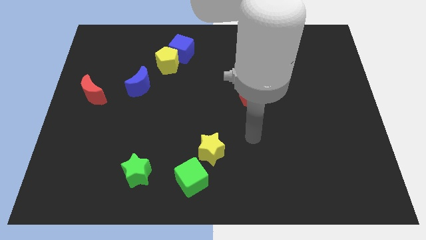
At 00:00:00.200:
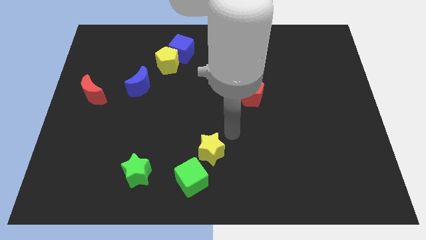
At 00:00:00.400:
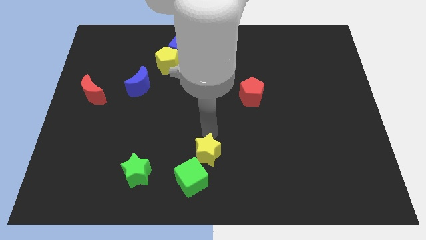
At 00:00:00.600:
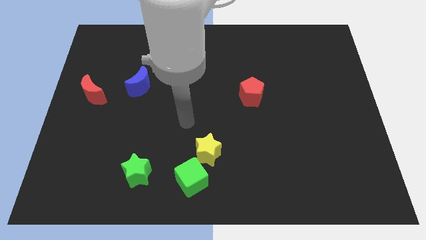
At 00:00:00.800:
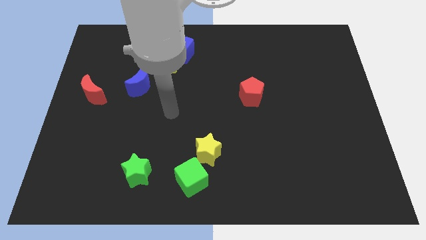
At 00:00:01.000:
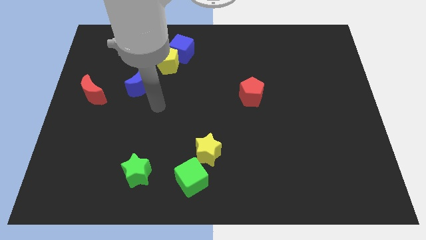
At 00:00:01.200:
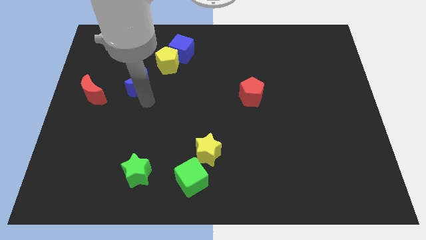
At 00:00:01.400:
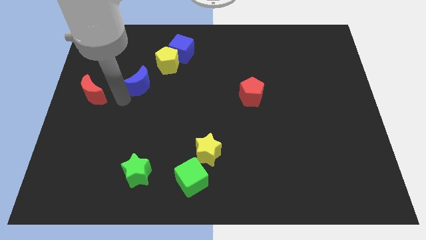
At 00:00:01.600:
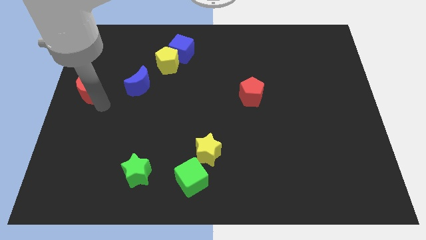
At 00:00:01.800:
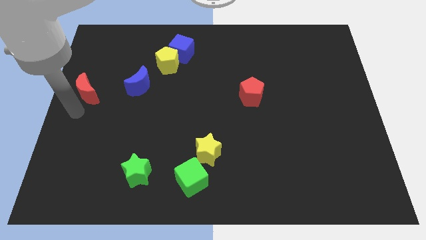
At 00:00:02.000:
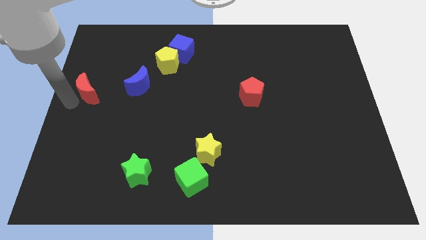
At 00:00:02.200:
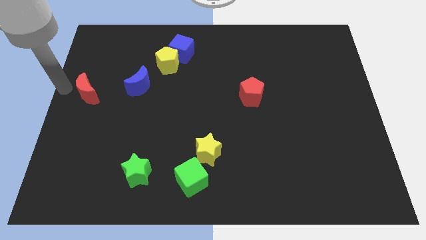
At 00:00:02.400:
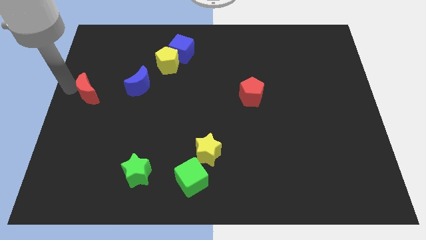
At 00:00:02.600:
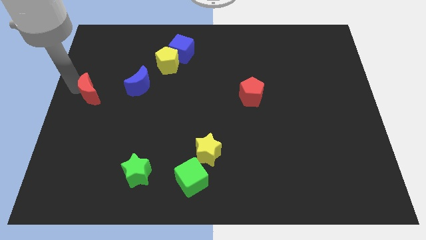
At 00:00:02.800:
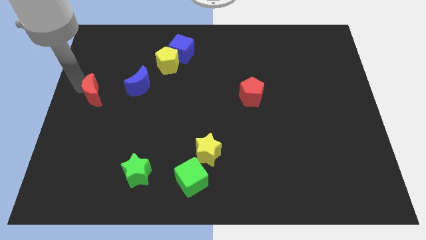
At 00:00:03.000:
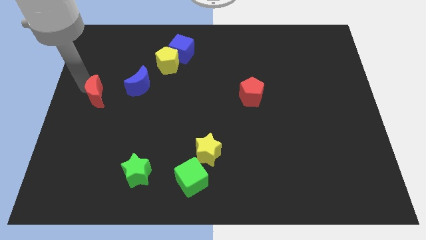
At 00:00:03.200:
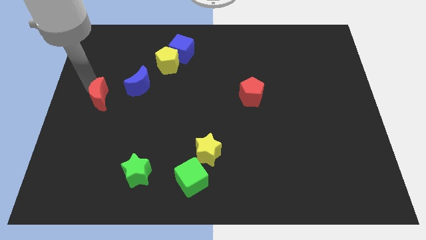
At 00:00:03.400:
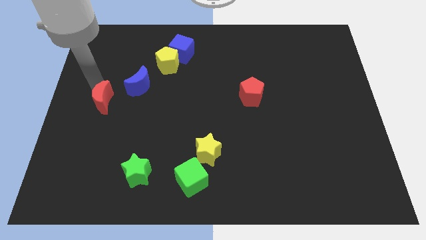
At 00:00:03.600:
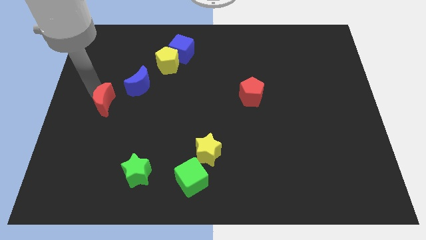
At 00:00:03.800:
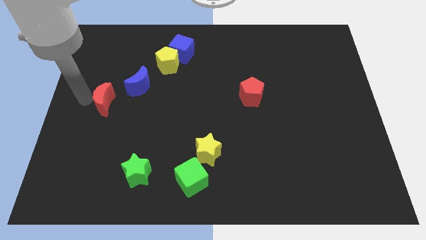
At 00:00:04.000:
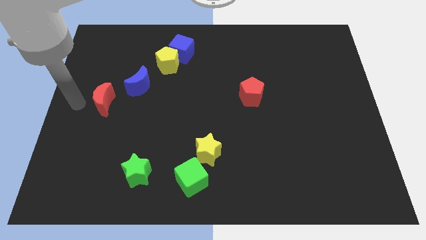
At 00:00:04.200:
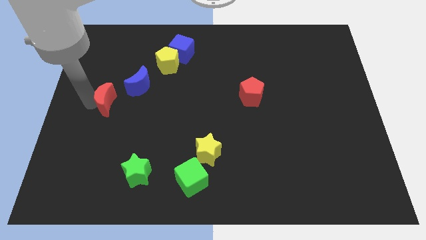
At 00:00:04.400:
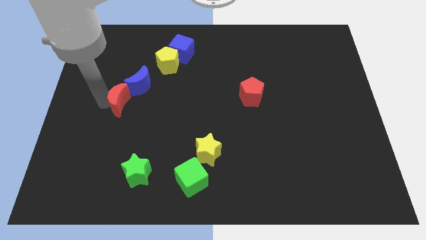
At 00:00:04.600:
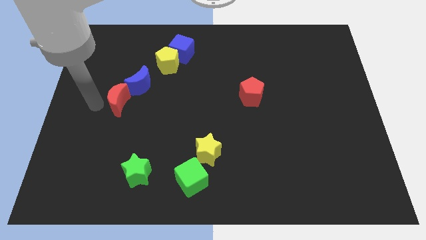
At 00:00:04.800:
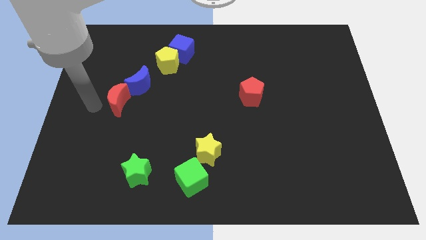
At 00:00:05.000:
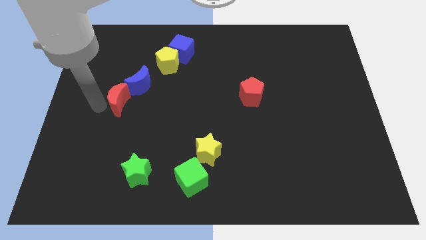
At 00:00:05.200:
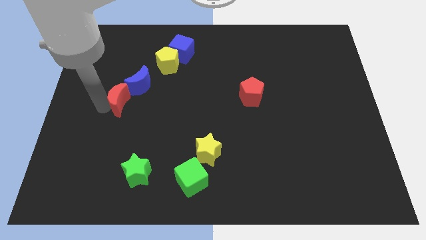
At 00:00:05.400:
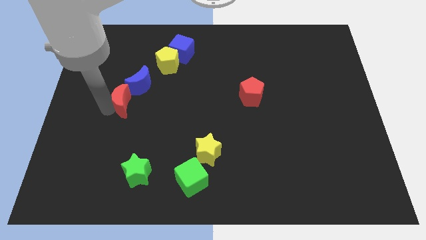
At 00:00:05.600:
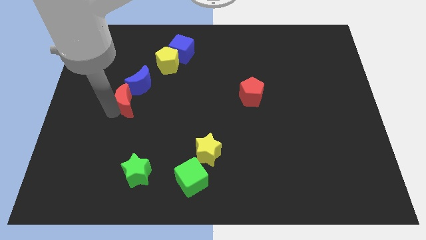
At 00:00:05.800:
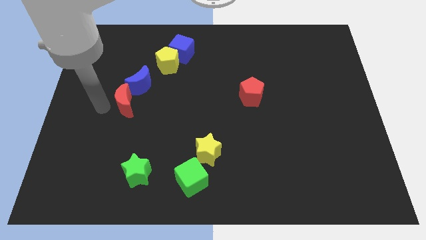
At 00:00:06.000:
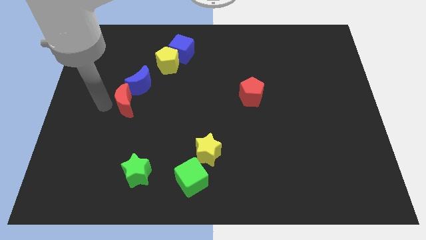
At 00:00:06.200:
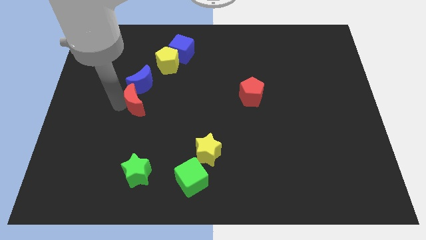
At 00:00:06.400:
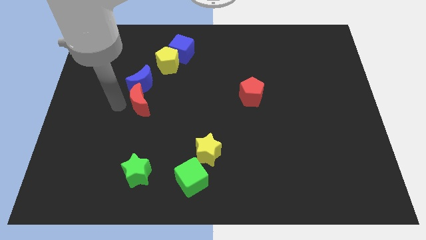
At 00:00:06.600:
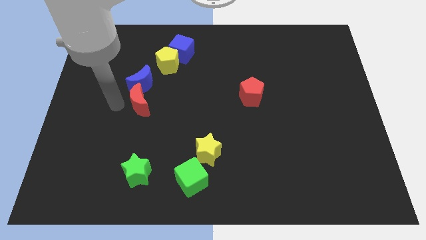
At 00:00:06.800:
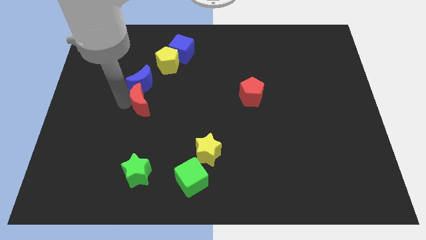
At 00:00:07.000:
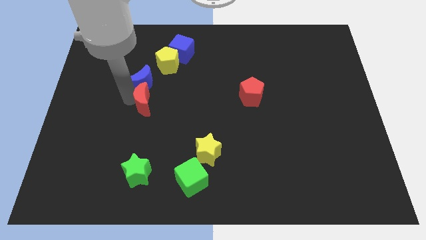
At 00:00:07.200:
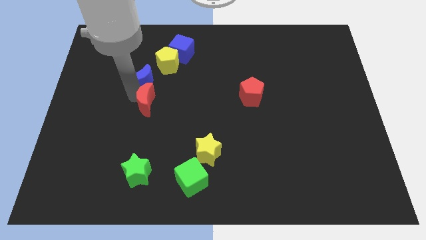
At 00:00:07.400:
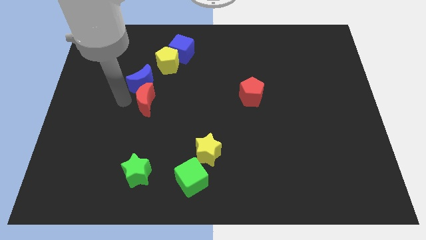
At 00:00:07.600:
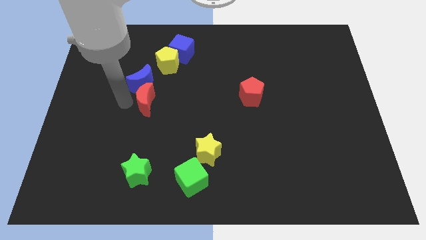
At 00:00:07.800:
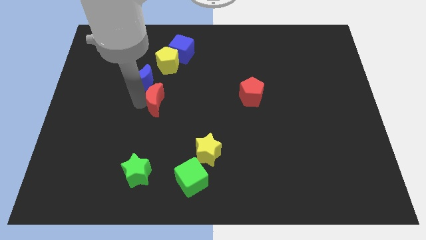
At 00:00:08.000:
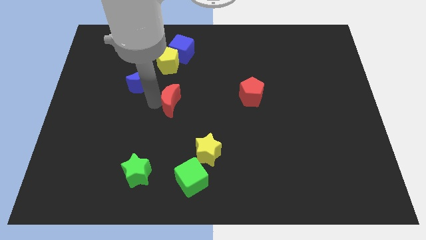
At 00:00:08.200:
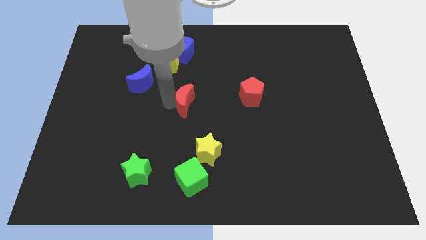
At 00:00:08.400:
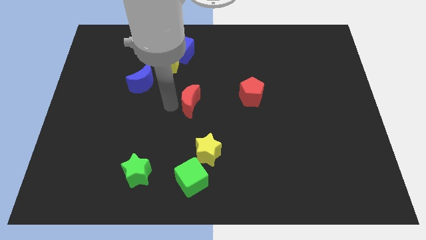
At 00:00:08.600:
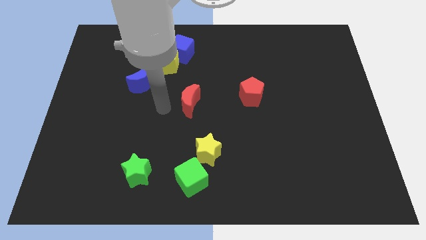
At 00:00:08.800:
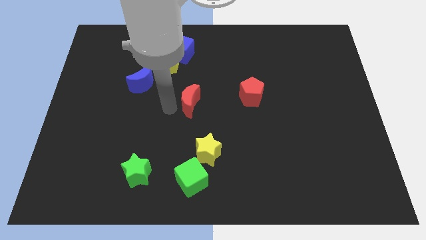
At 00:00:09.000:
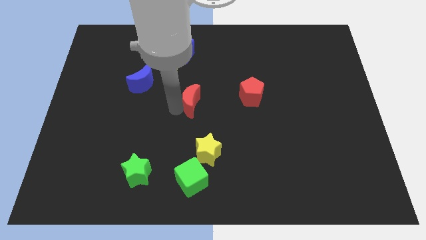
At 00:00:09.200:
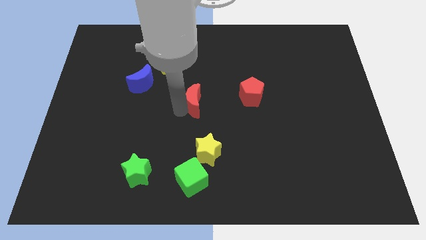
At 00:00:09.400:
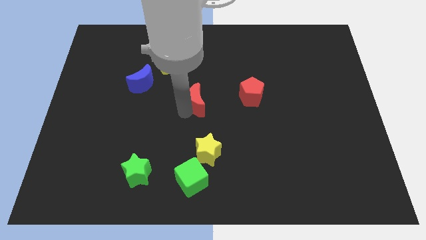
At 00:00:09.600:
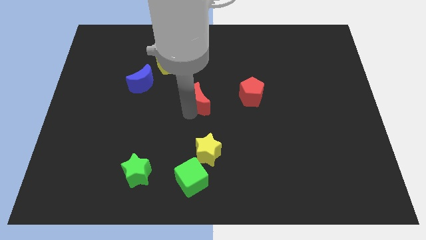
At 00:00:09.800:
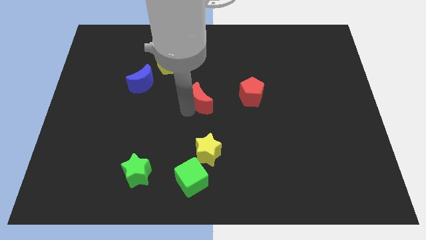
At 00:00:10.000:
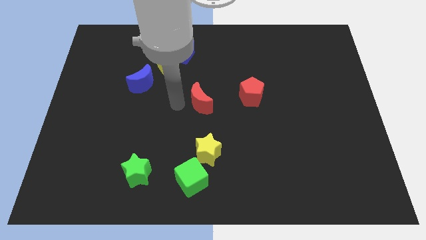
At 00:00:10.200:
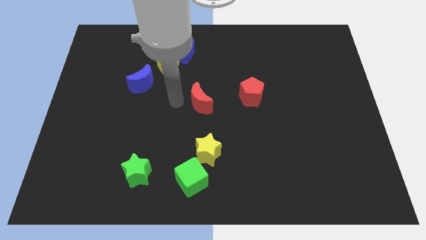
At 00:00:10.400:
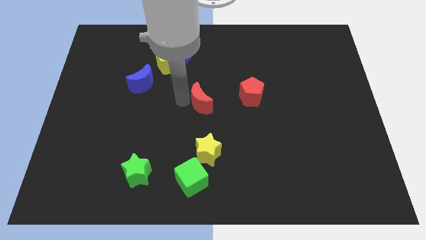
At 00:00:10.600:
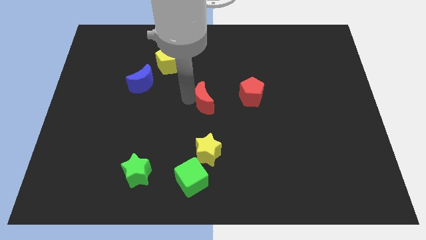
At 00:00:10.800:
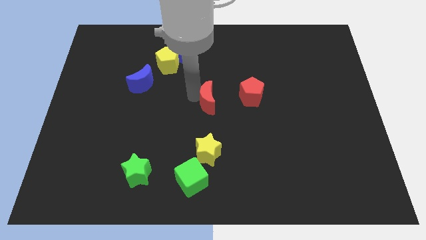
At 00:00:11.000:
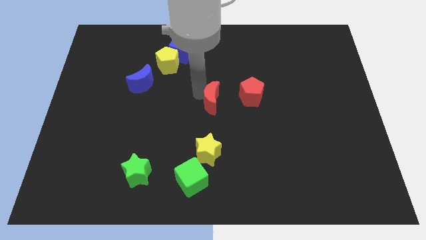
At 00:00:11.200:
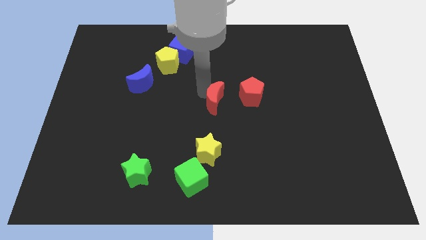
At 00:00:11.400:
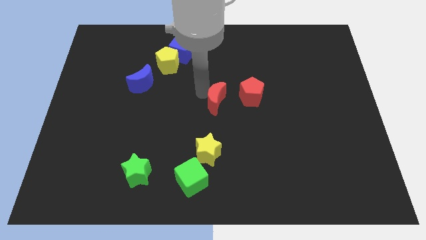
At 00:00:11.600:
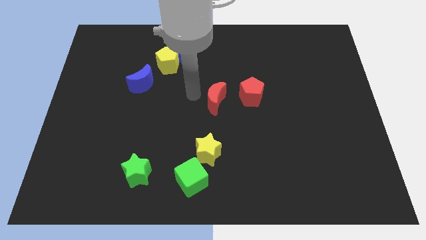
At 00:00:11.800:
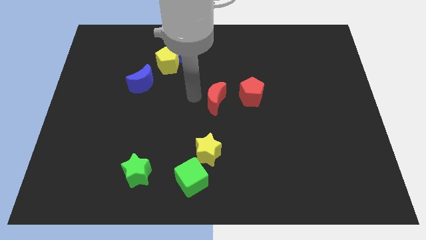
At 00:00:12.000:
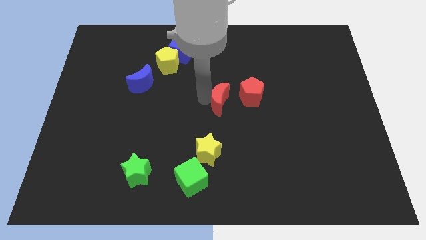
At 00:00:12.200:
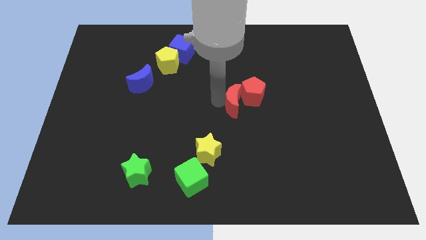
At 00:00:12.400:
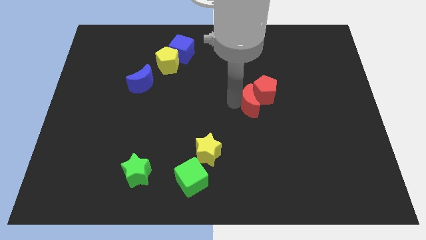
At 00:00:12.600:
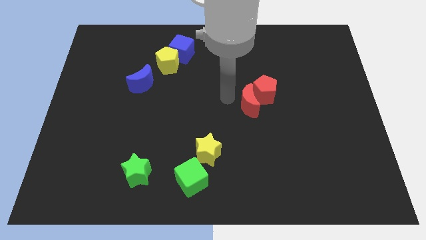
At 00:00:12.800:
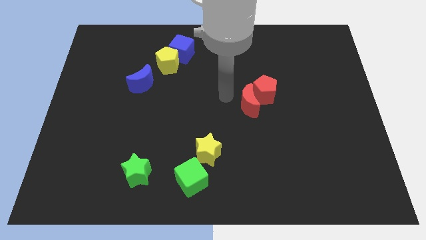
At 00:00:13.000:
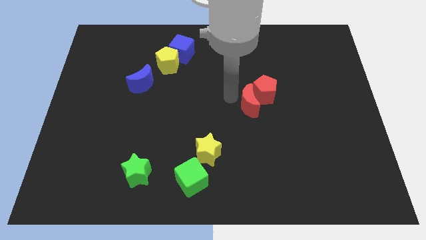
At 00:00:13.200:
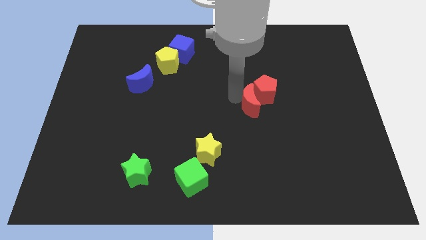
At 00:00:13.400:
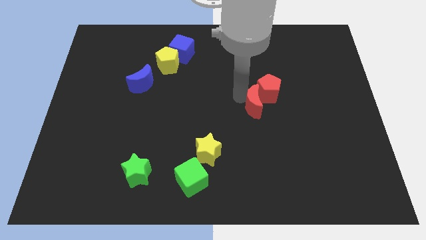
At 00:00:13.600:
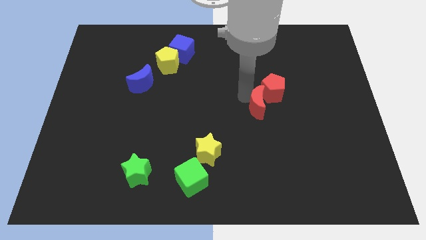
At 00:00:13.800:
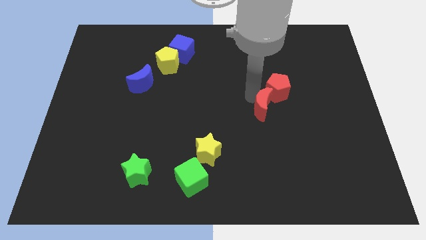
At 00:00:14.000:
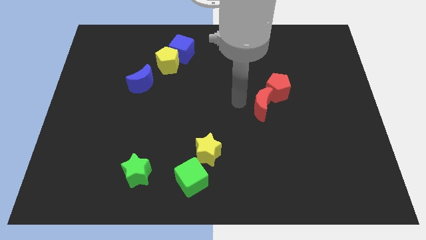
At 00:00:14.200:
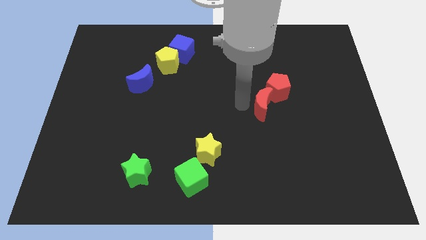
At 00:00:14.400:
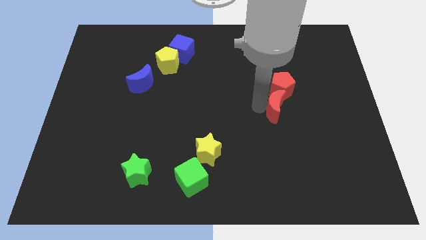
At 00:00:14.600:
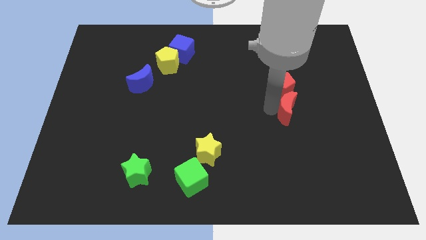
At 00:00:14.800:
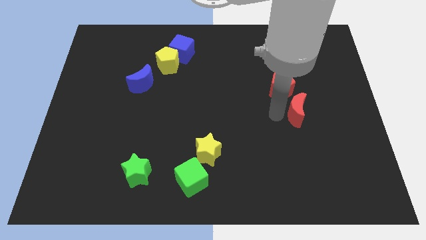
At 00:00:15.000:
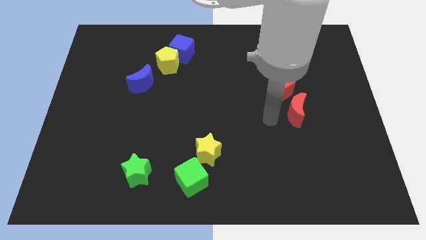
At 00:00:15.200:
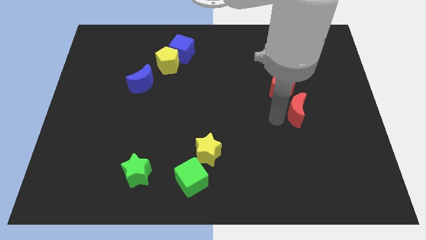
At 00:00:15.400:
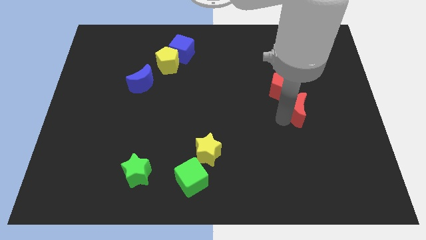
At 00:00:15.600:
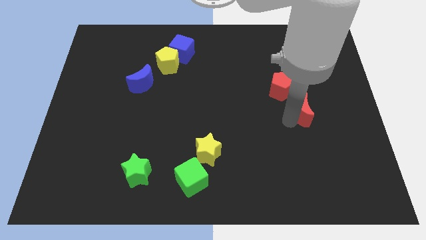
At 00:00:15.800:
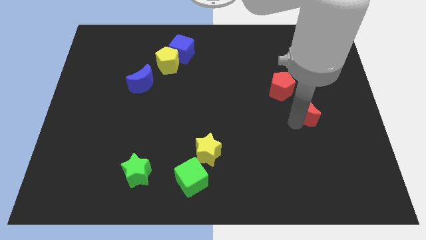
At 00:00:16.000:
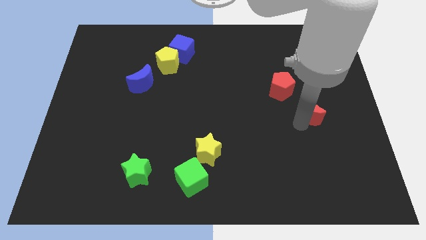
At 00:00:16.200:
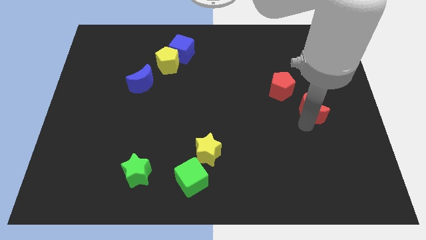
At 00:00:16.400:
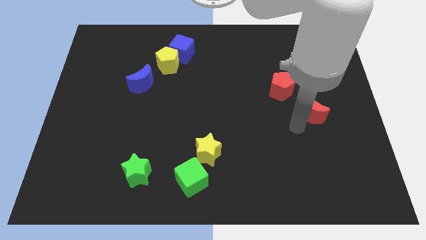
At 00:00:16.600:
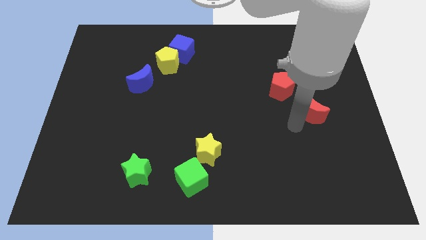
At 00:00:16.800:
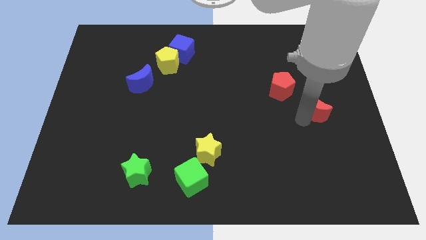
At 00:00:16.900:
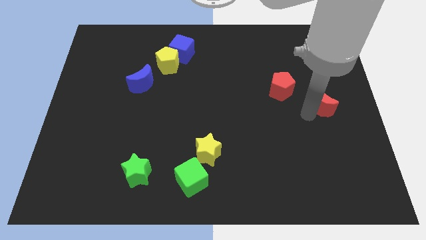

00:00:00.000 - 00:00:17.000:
slide the red moon to the center right
